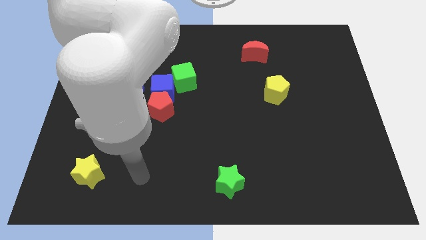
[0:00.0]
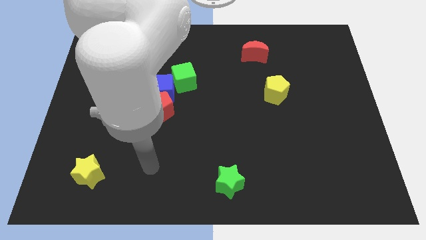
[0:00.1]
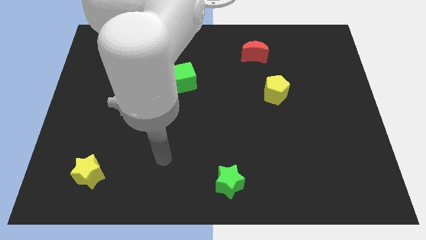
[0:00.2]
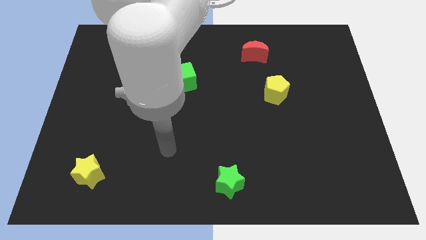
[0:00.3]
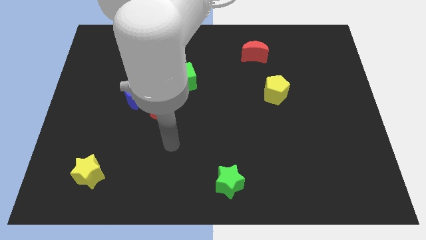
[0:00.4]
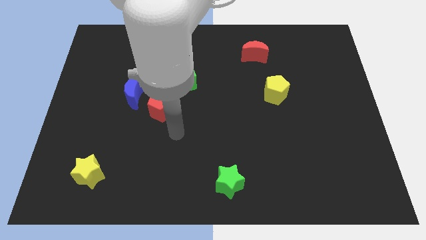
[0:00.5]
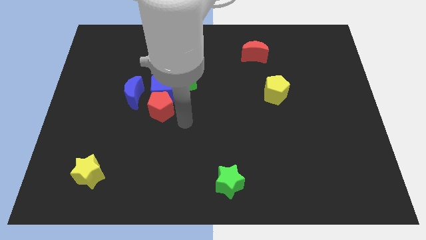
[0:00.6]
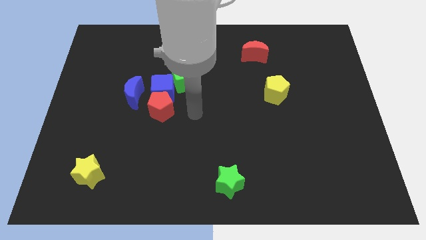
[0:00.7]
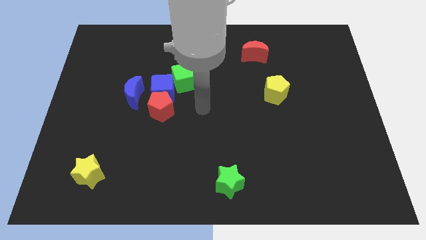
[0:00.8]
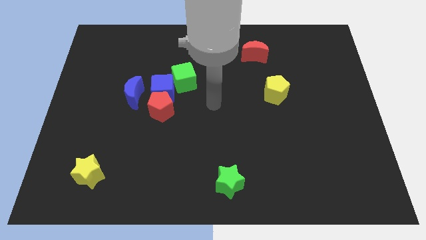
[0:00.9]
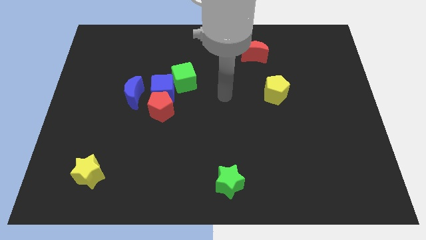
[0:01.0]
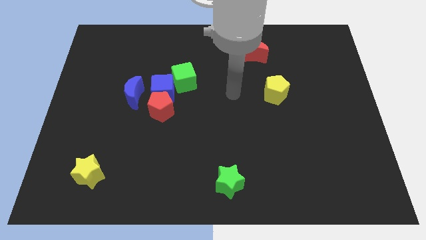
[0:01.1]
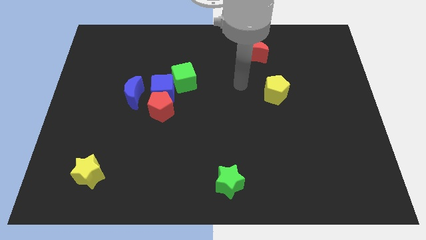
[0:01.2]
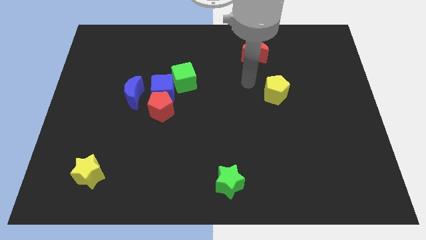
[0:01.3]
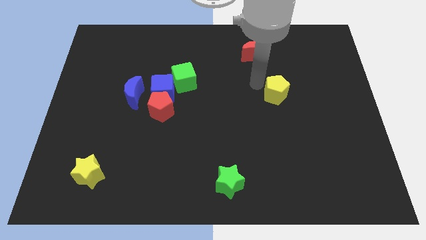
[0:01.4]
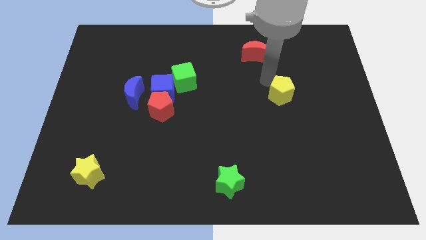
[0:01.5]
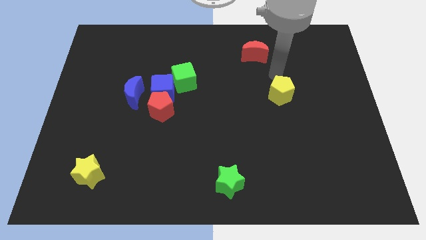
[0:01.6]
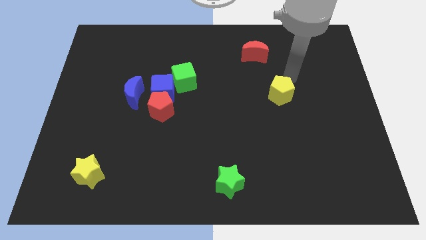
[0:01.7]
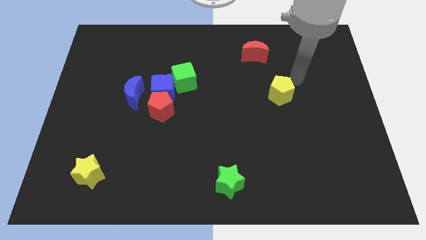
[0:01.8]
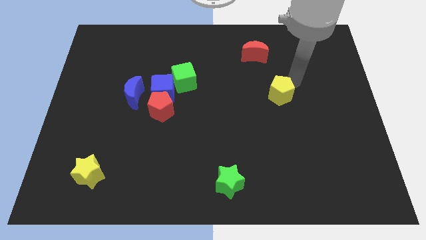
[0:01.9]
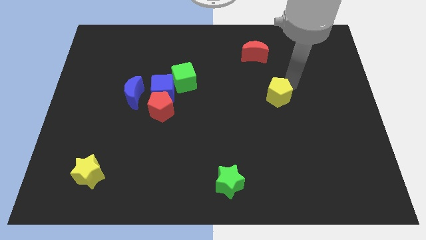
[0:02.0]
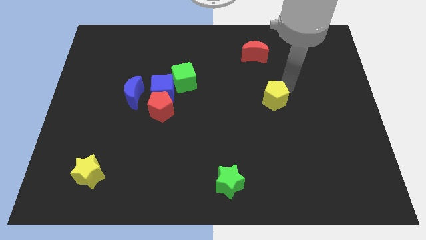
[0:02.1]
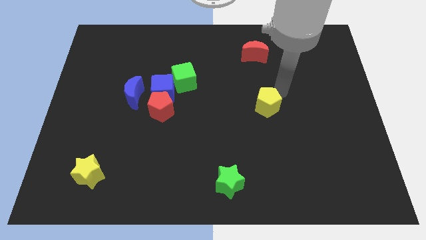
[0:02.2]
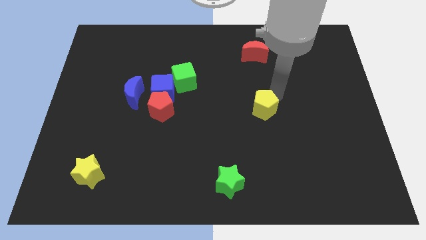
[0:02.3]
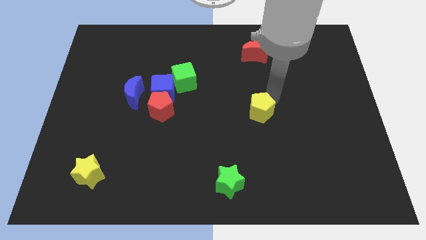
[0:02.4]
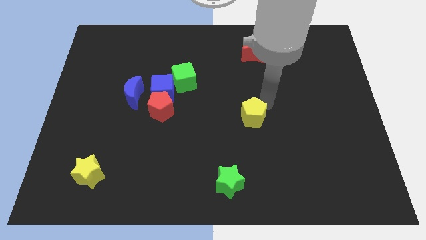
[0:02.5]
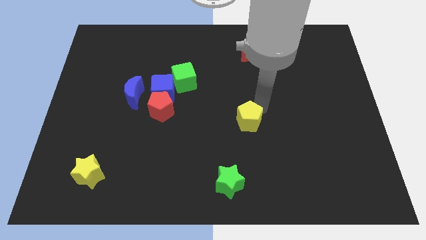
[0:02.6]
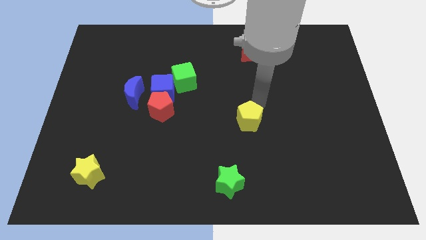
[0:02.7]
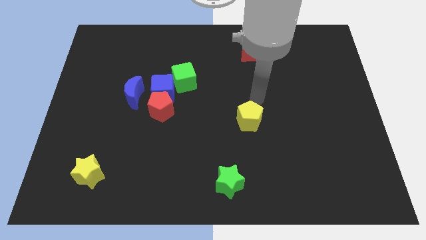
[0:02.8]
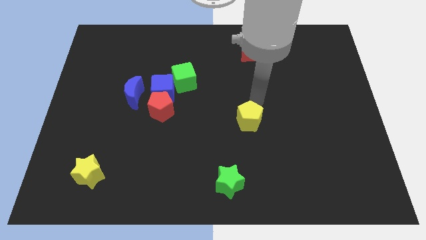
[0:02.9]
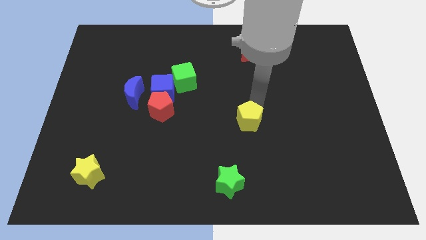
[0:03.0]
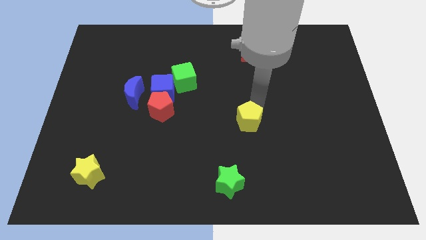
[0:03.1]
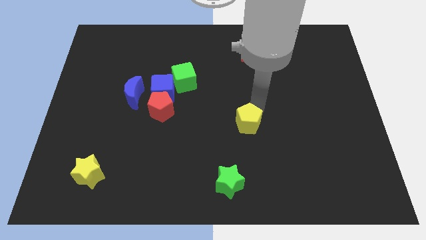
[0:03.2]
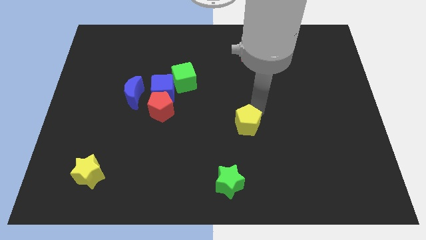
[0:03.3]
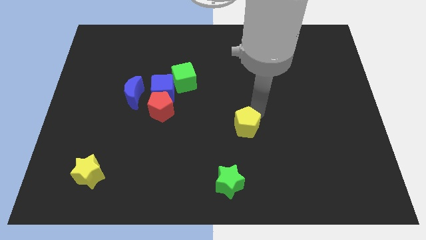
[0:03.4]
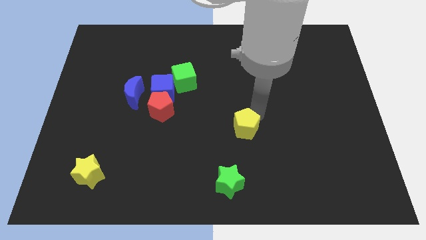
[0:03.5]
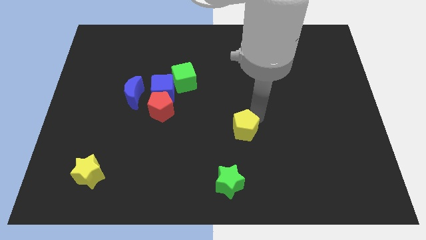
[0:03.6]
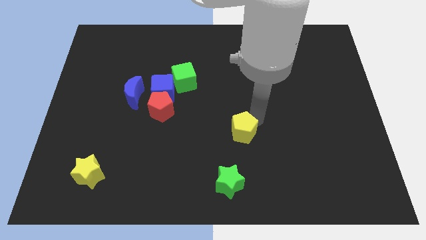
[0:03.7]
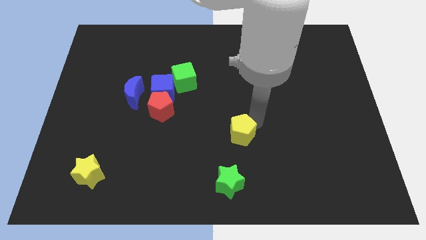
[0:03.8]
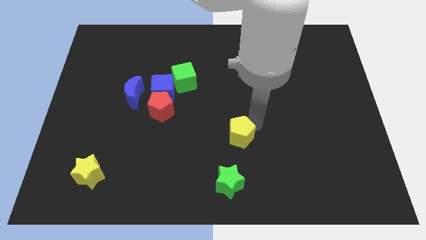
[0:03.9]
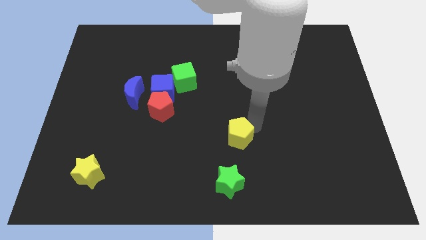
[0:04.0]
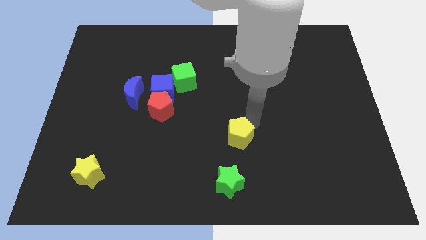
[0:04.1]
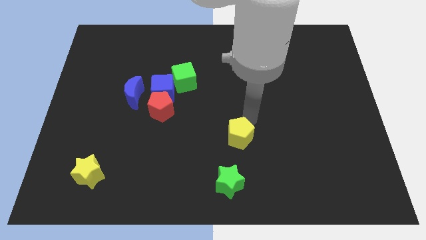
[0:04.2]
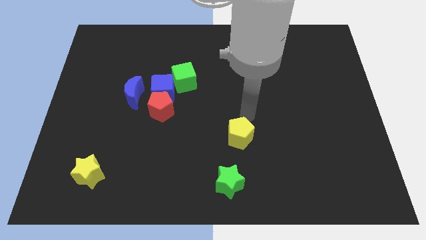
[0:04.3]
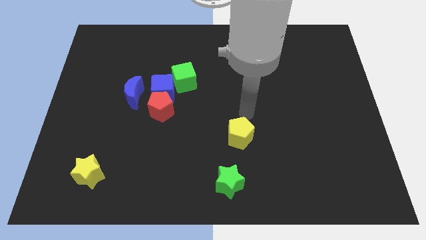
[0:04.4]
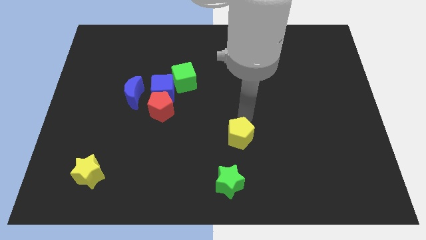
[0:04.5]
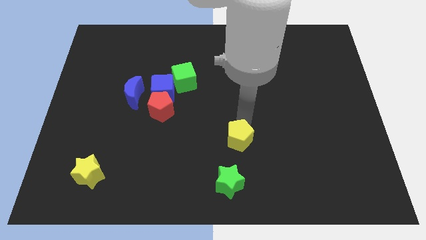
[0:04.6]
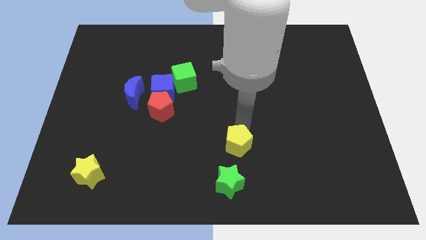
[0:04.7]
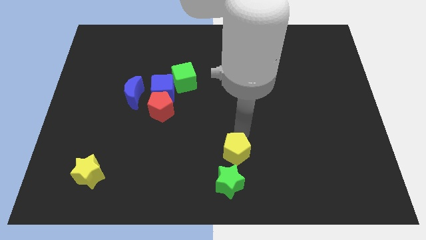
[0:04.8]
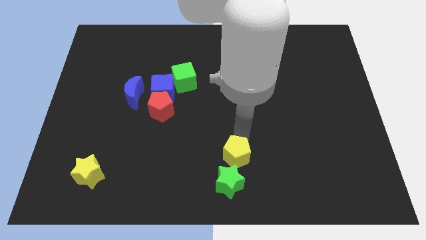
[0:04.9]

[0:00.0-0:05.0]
put the yellow pentagon to the bottom

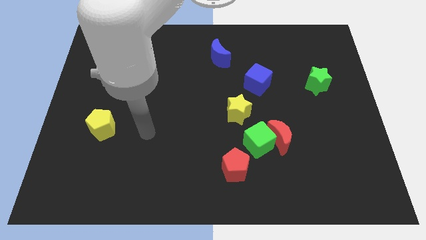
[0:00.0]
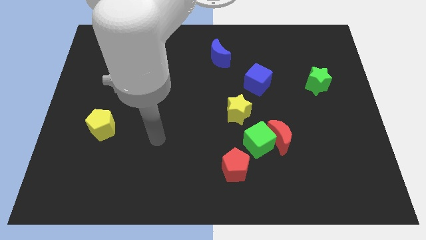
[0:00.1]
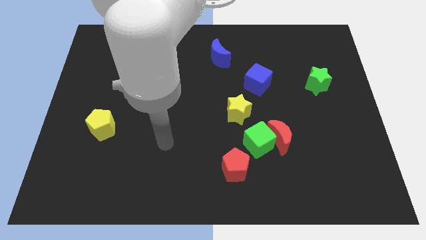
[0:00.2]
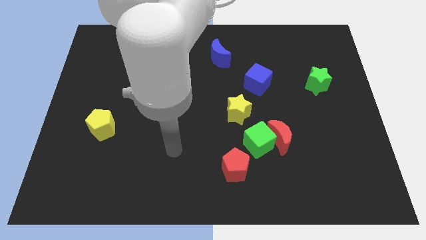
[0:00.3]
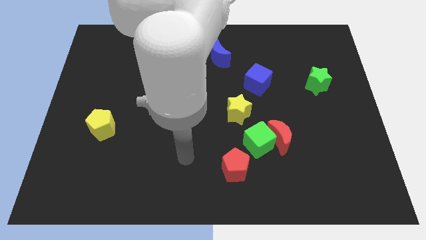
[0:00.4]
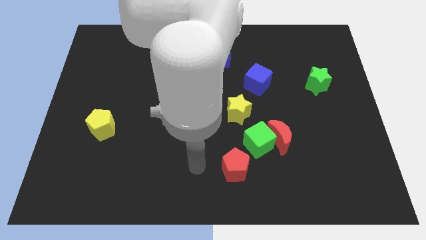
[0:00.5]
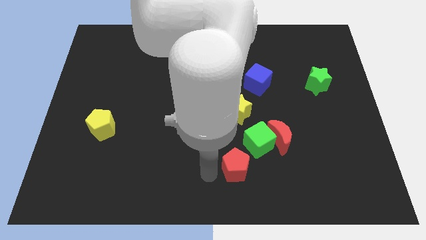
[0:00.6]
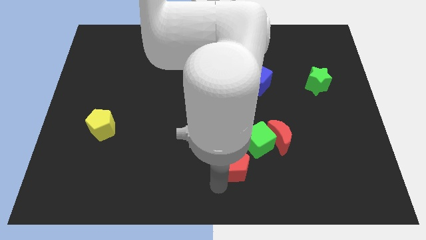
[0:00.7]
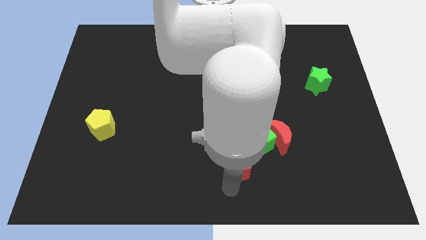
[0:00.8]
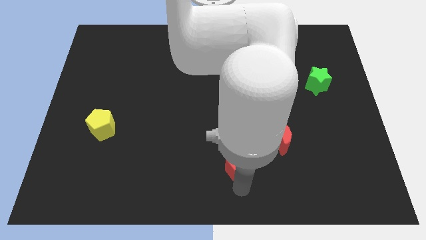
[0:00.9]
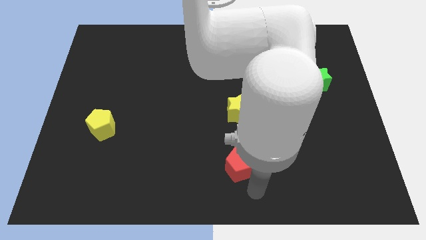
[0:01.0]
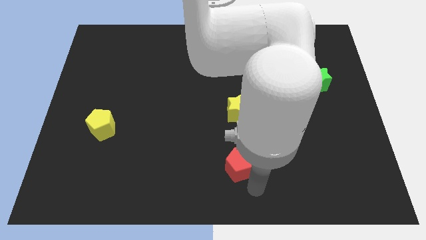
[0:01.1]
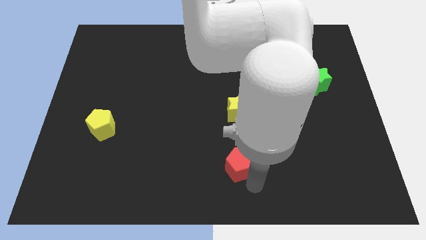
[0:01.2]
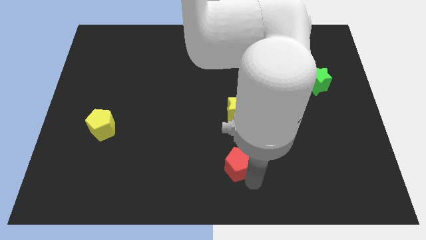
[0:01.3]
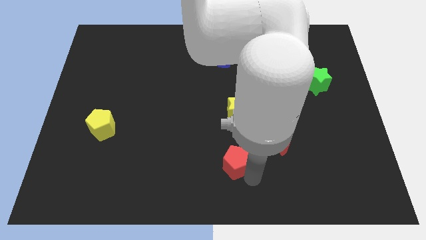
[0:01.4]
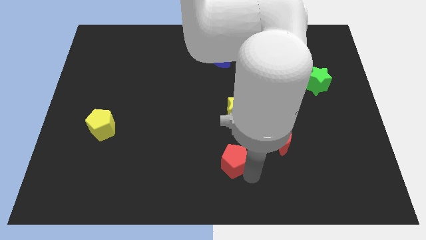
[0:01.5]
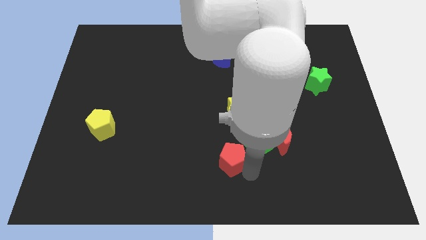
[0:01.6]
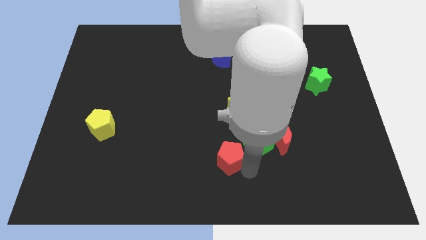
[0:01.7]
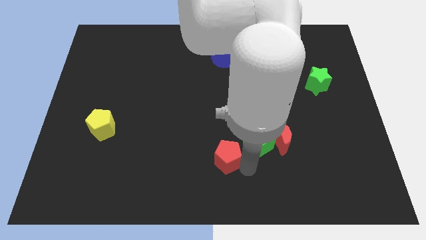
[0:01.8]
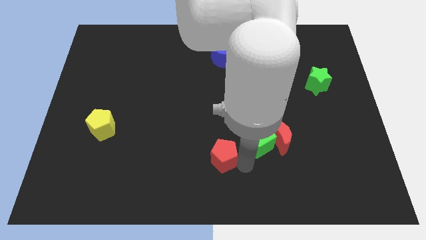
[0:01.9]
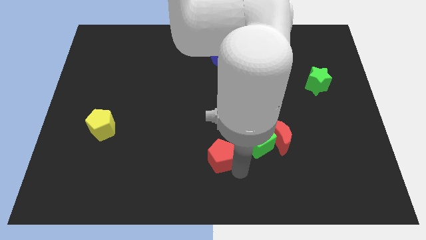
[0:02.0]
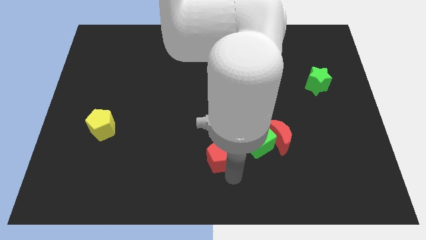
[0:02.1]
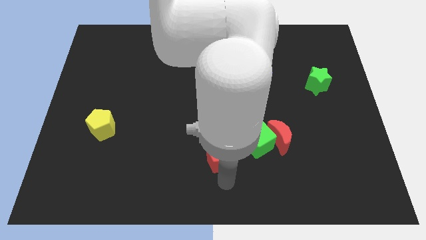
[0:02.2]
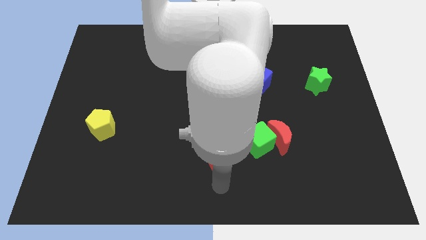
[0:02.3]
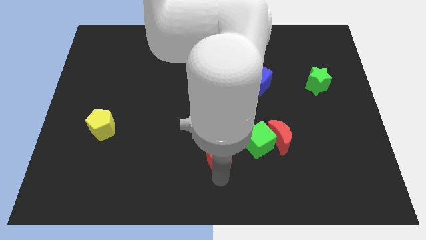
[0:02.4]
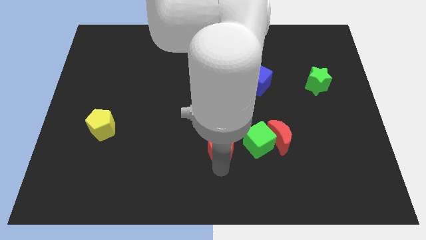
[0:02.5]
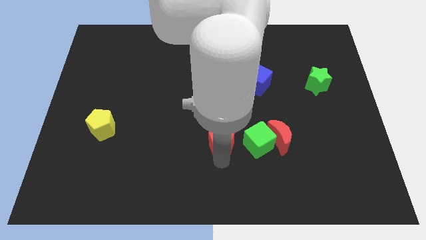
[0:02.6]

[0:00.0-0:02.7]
slide the red pentagon to the middle
